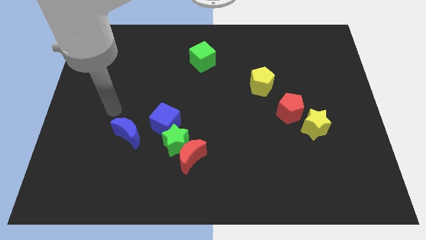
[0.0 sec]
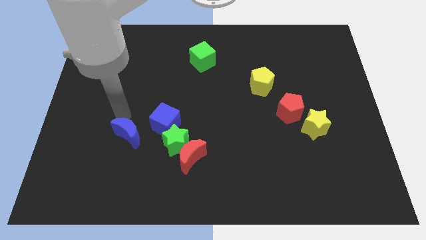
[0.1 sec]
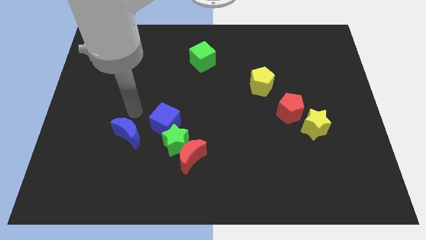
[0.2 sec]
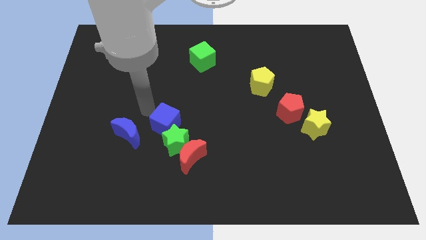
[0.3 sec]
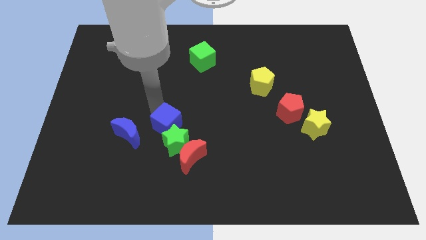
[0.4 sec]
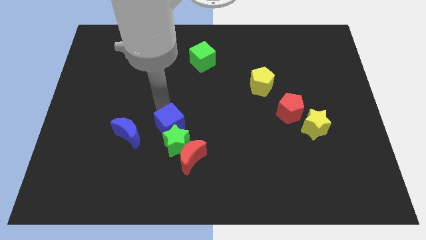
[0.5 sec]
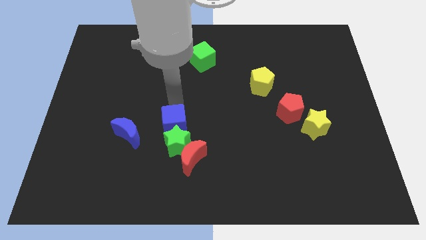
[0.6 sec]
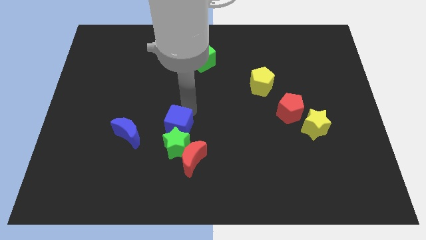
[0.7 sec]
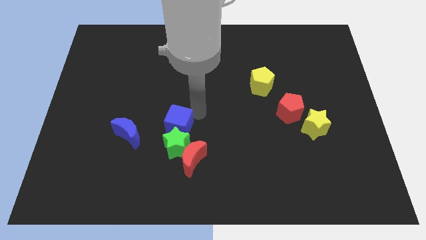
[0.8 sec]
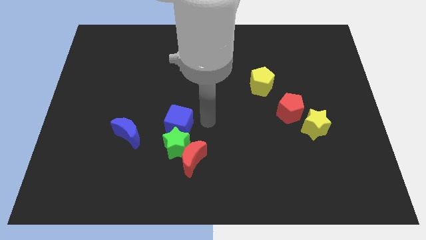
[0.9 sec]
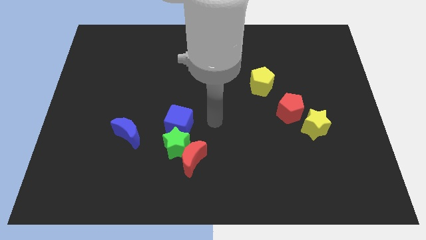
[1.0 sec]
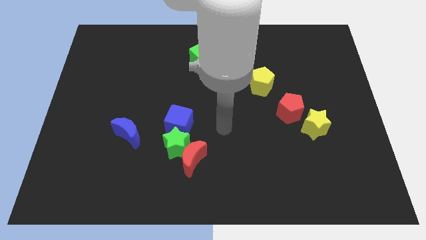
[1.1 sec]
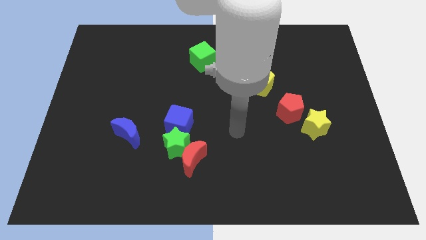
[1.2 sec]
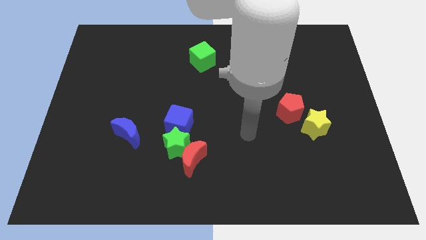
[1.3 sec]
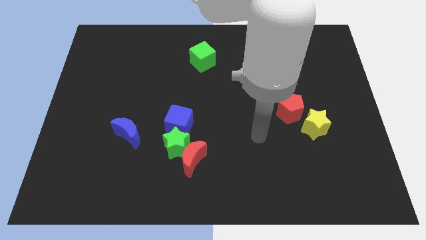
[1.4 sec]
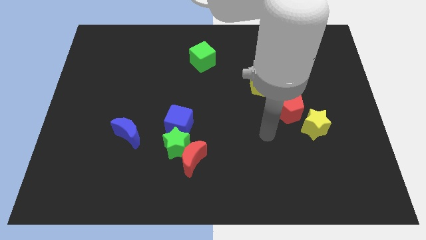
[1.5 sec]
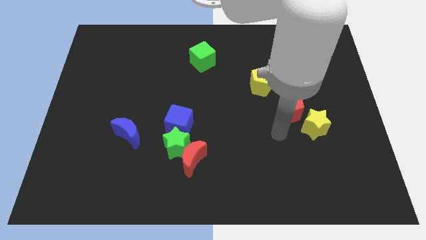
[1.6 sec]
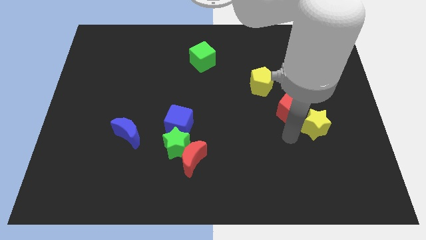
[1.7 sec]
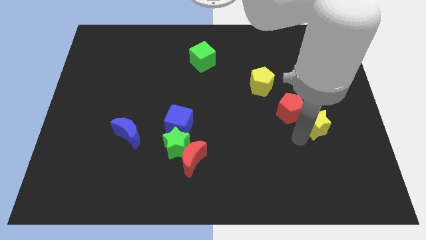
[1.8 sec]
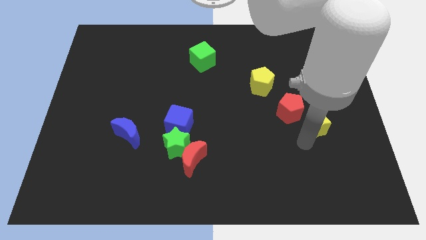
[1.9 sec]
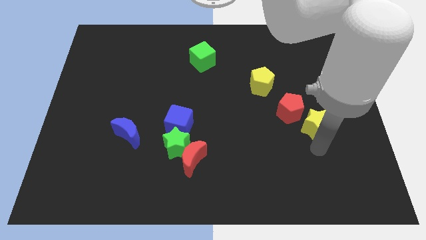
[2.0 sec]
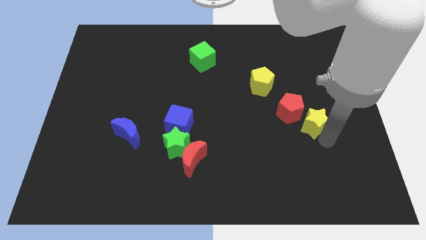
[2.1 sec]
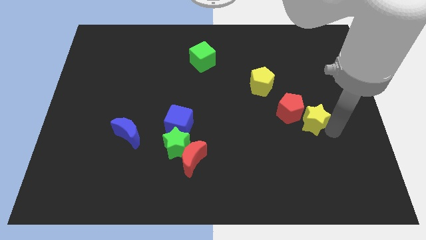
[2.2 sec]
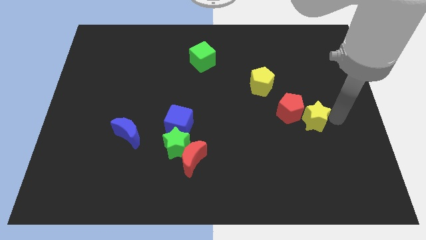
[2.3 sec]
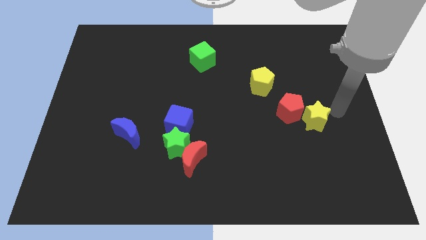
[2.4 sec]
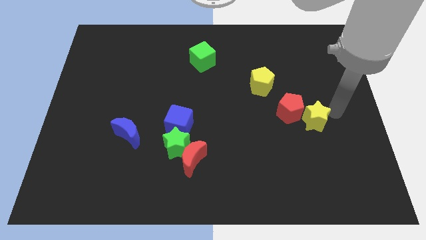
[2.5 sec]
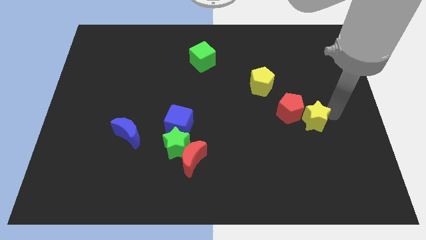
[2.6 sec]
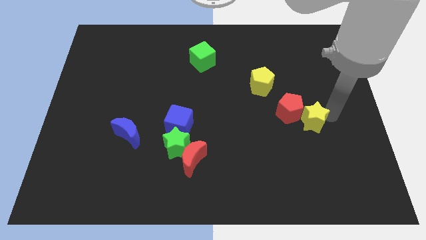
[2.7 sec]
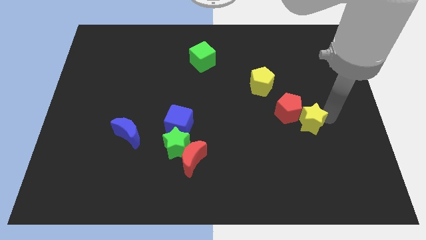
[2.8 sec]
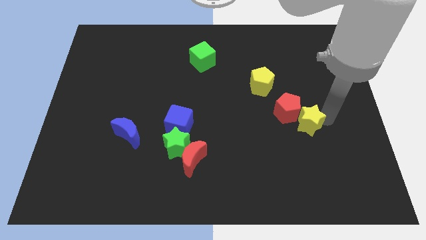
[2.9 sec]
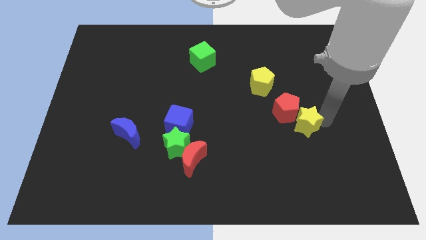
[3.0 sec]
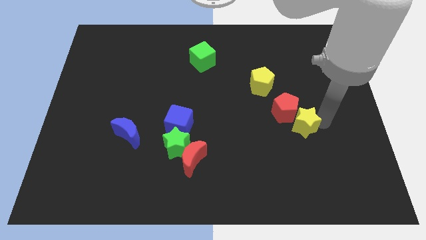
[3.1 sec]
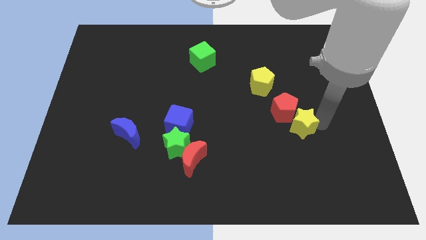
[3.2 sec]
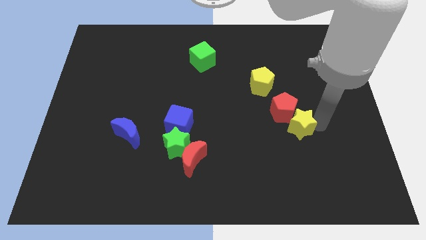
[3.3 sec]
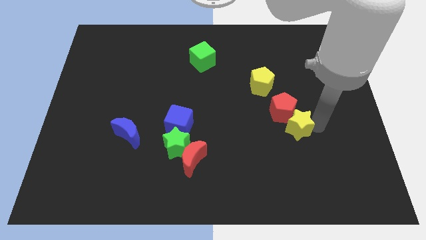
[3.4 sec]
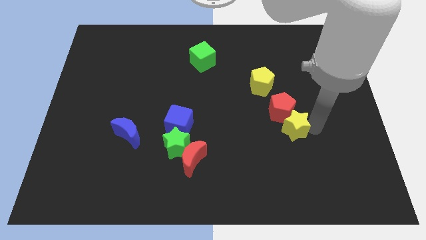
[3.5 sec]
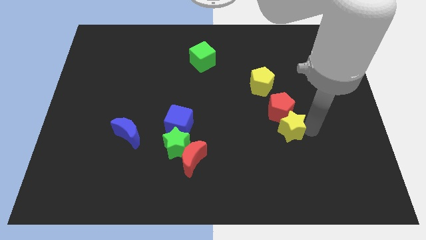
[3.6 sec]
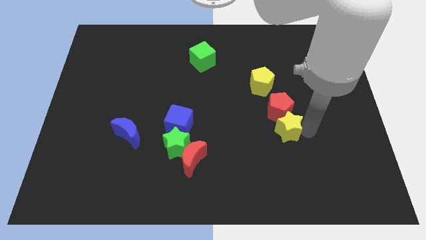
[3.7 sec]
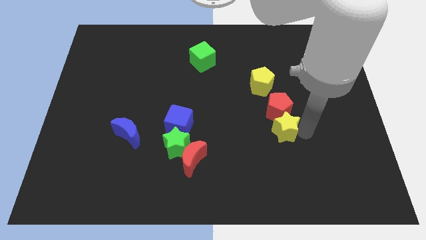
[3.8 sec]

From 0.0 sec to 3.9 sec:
move the yellow star to the left somewhat

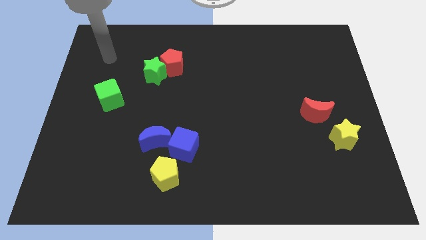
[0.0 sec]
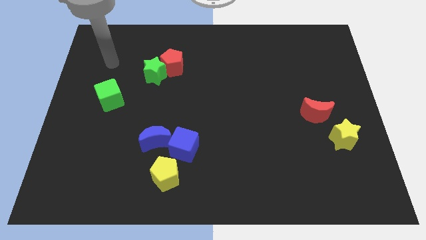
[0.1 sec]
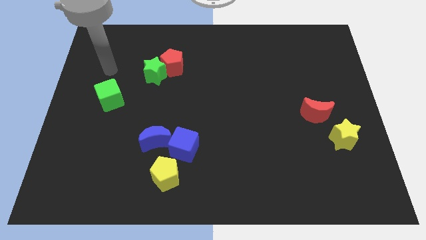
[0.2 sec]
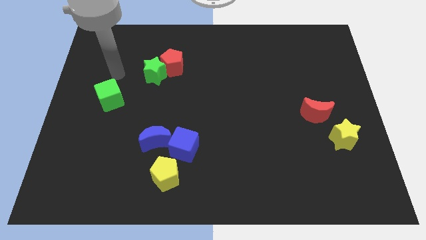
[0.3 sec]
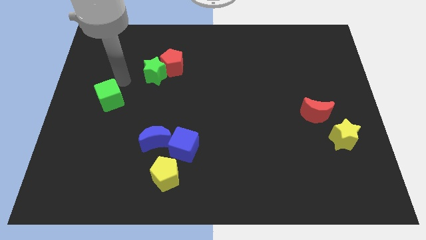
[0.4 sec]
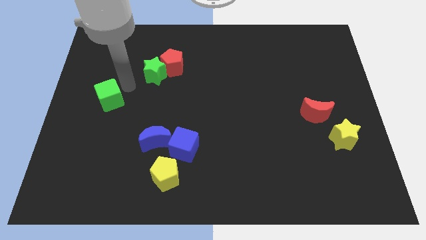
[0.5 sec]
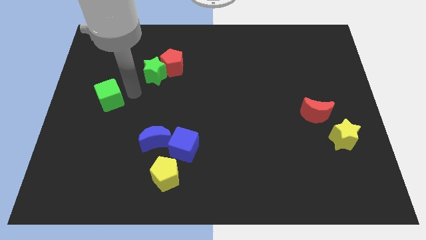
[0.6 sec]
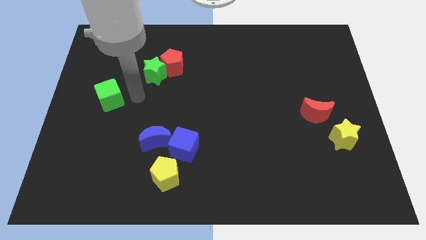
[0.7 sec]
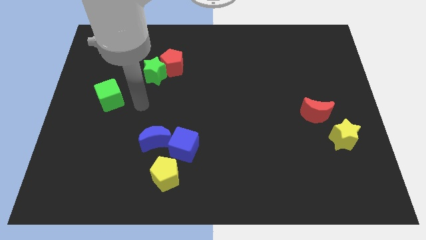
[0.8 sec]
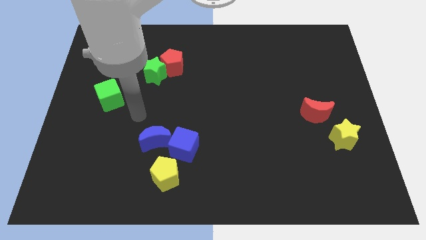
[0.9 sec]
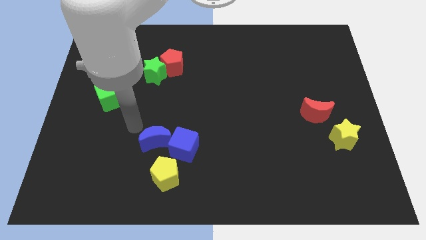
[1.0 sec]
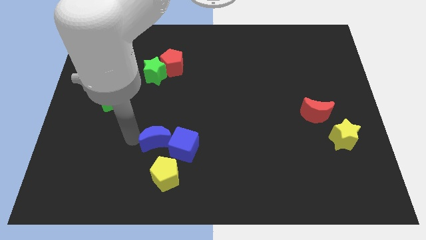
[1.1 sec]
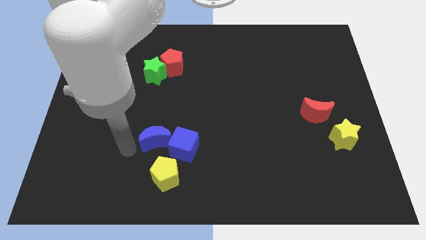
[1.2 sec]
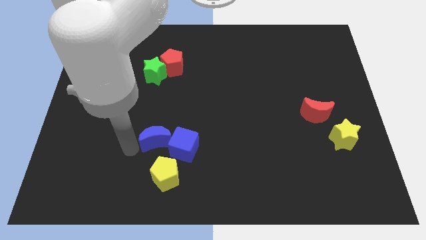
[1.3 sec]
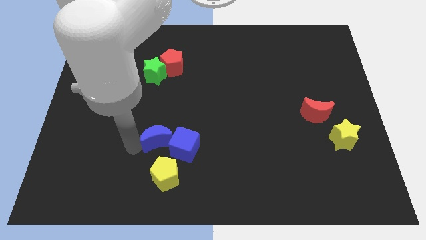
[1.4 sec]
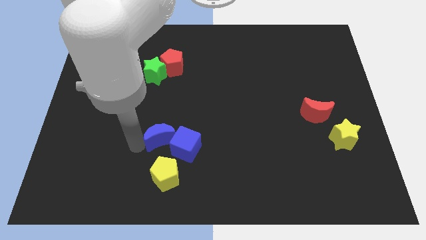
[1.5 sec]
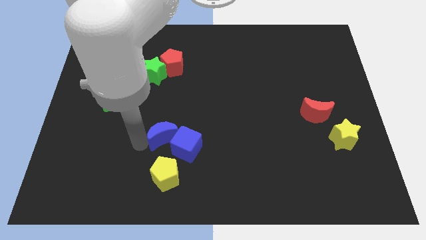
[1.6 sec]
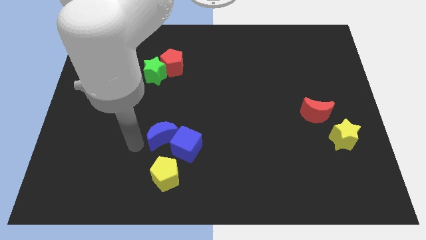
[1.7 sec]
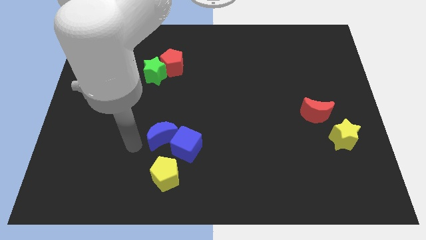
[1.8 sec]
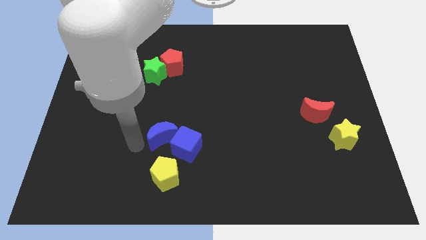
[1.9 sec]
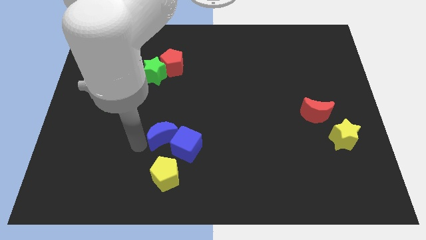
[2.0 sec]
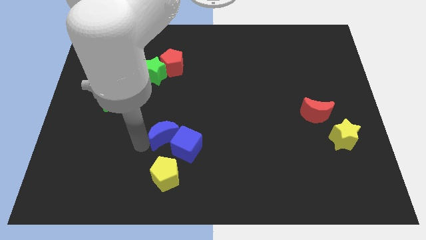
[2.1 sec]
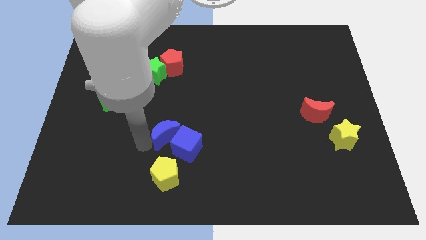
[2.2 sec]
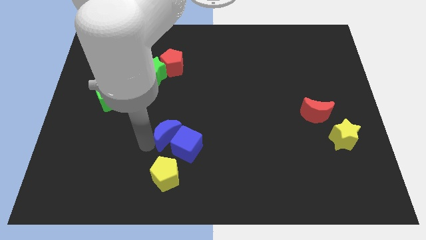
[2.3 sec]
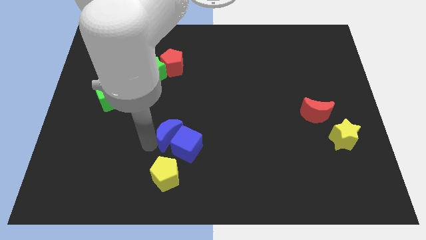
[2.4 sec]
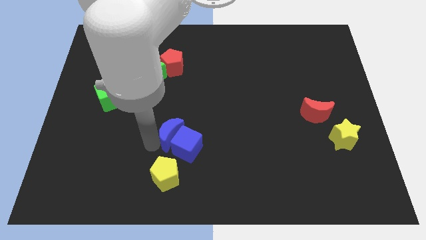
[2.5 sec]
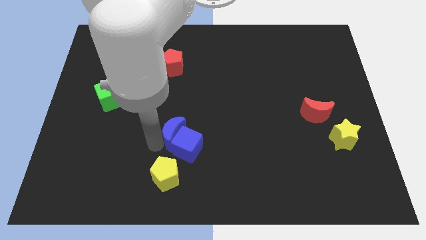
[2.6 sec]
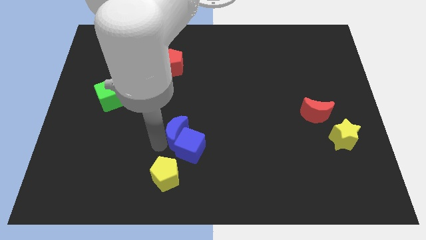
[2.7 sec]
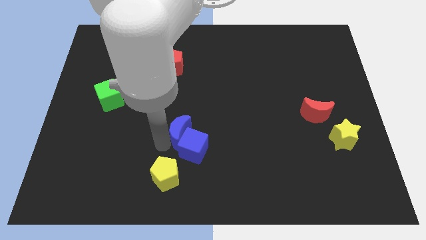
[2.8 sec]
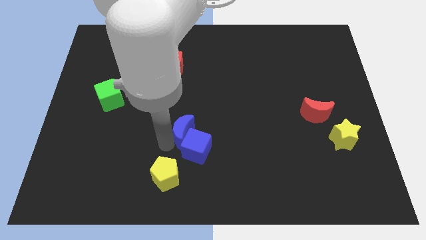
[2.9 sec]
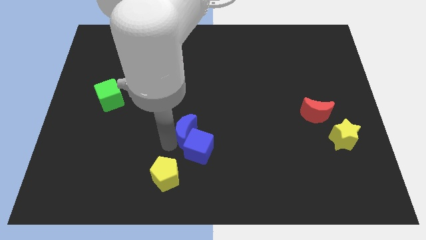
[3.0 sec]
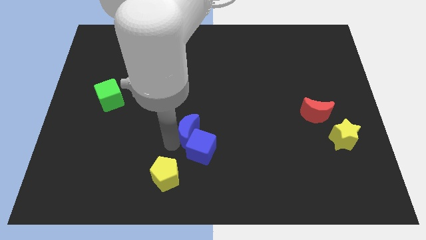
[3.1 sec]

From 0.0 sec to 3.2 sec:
slightly push the blue moon right

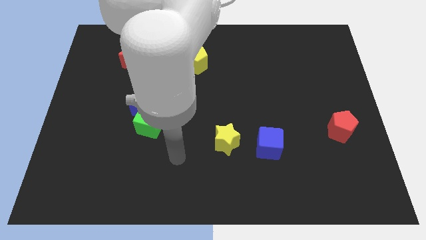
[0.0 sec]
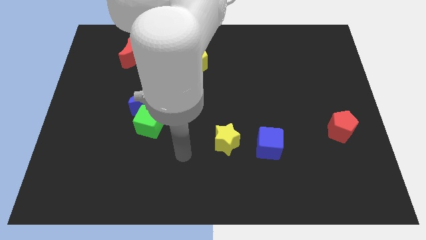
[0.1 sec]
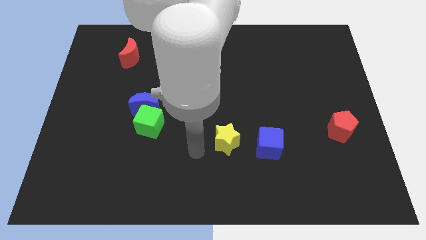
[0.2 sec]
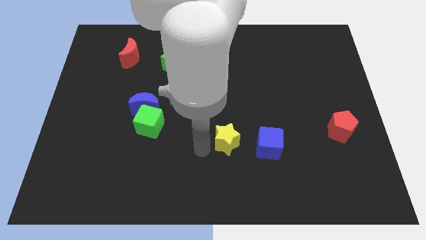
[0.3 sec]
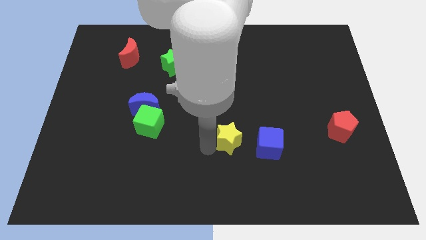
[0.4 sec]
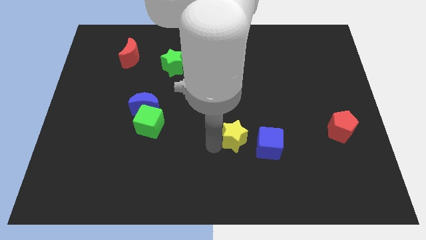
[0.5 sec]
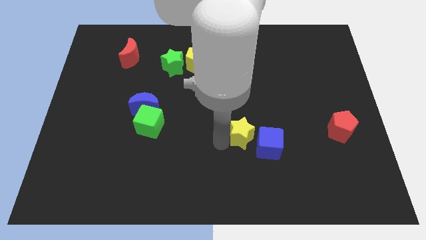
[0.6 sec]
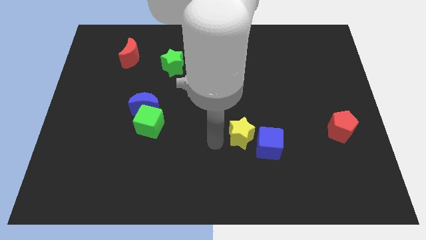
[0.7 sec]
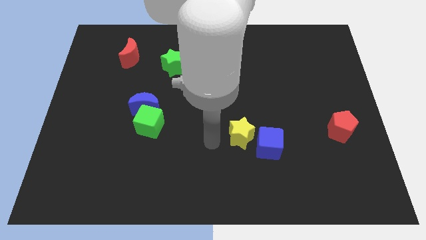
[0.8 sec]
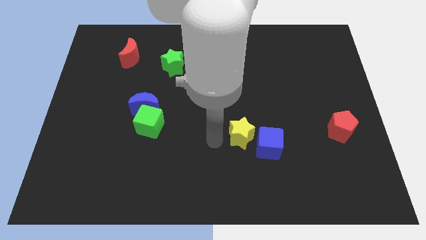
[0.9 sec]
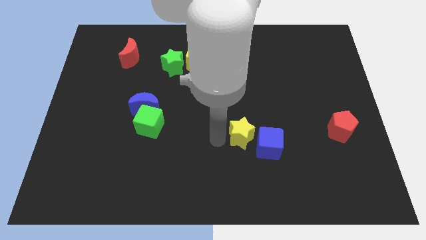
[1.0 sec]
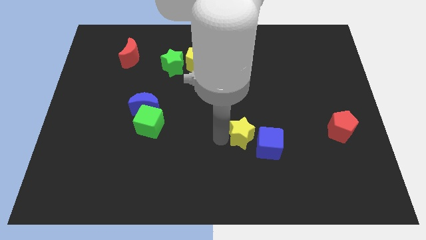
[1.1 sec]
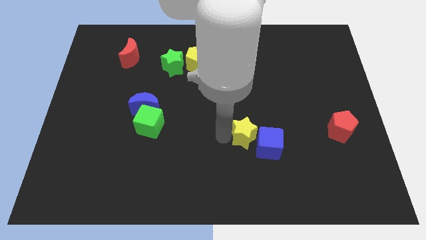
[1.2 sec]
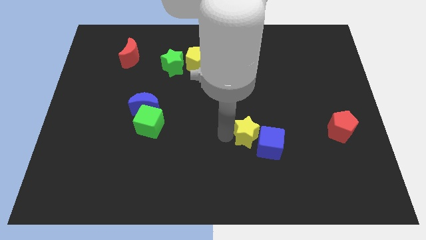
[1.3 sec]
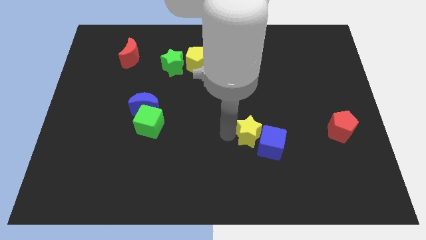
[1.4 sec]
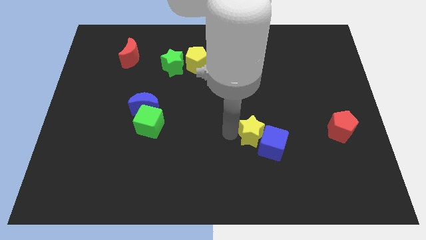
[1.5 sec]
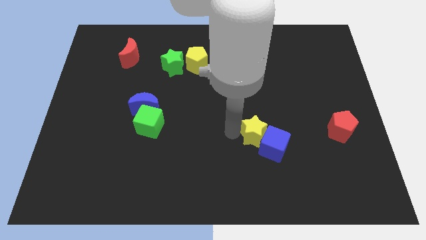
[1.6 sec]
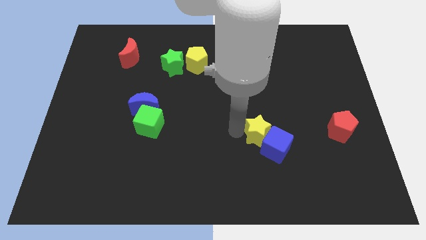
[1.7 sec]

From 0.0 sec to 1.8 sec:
slightly push the yellow star to the right
